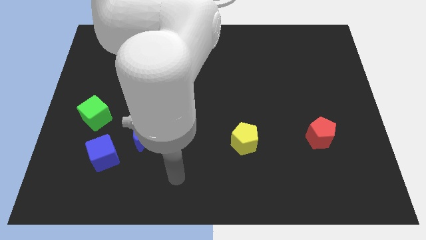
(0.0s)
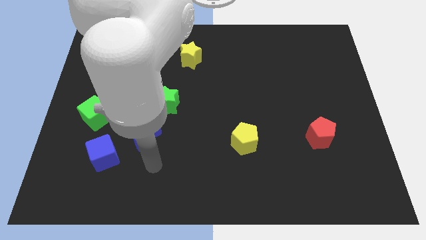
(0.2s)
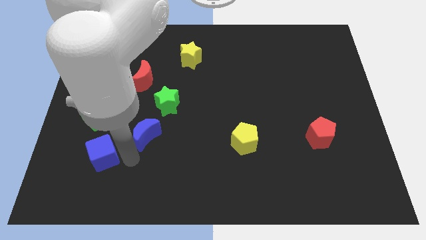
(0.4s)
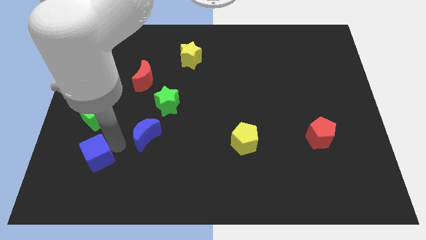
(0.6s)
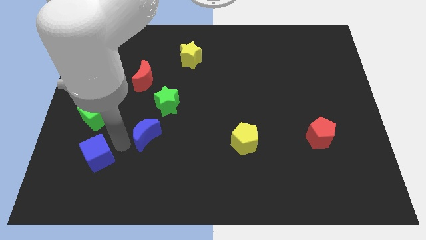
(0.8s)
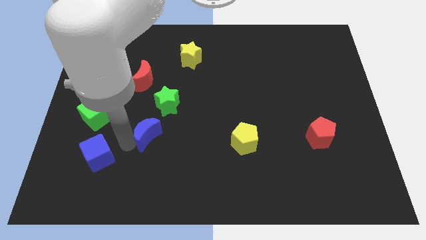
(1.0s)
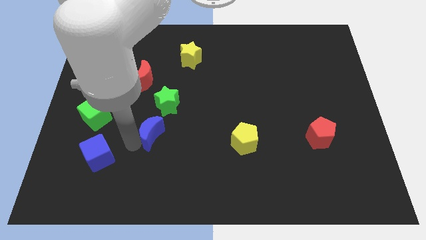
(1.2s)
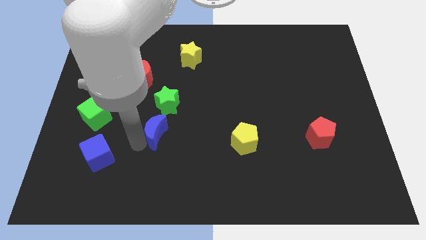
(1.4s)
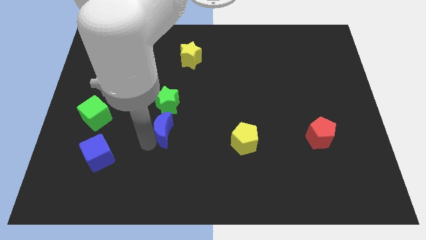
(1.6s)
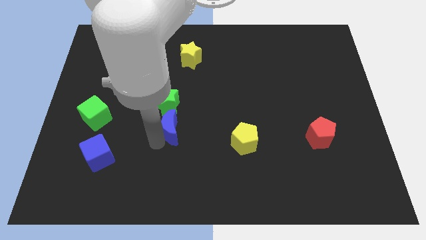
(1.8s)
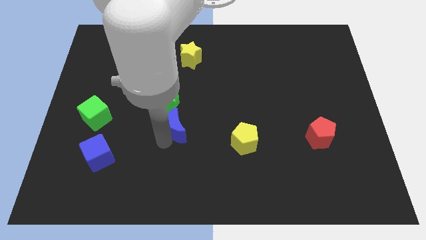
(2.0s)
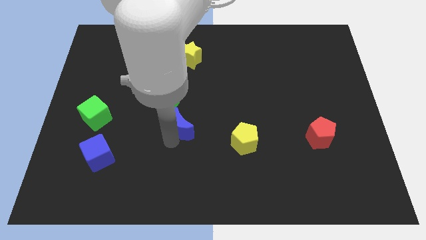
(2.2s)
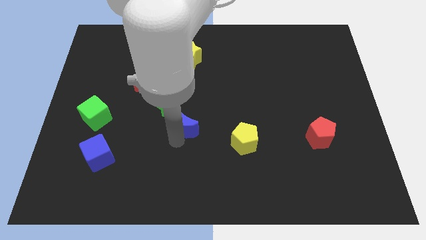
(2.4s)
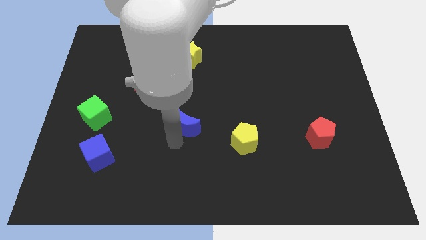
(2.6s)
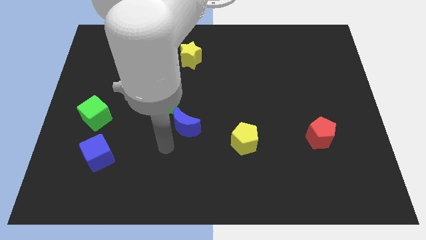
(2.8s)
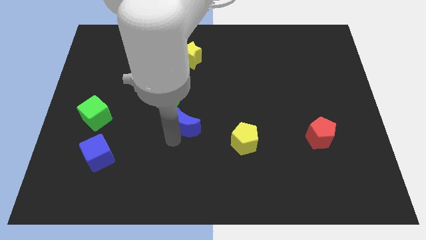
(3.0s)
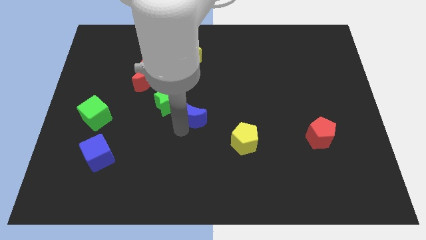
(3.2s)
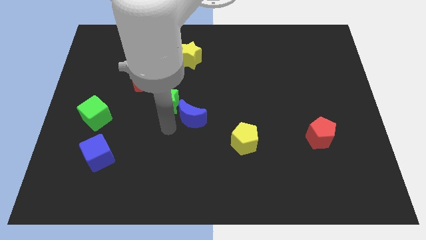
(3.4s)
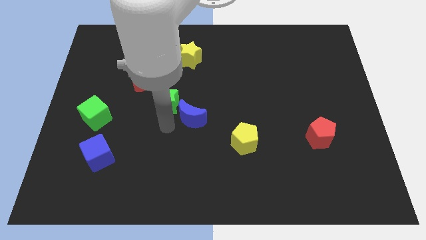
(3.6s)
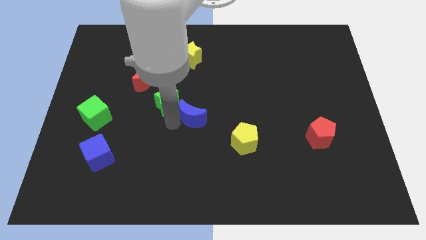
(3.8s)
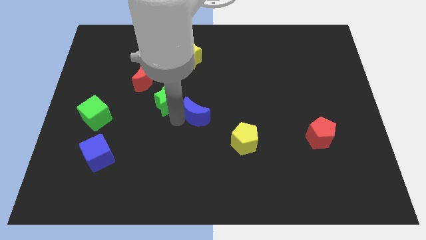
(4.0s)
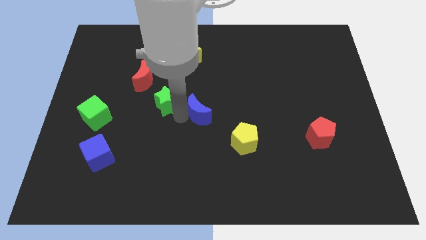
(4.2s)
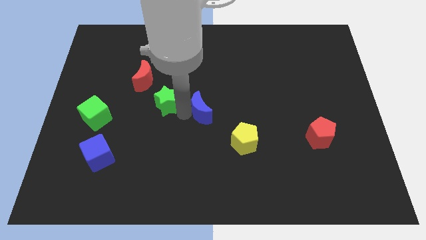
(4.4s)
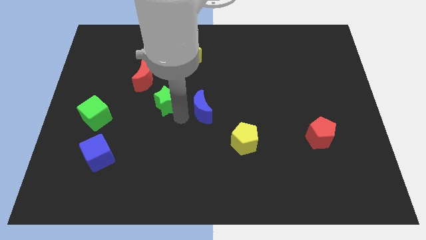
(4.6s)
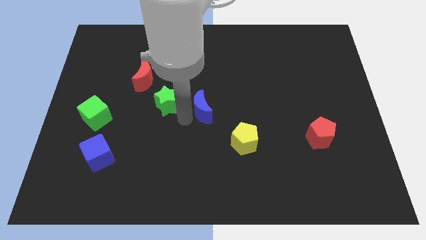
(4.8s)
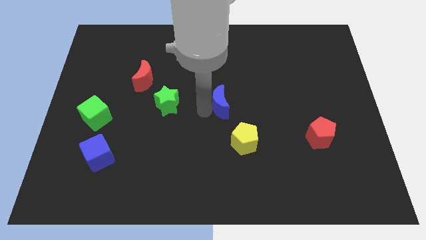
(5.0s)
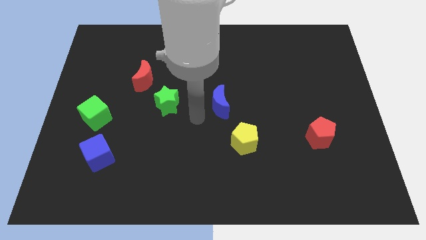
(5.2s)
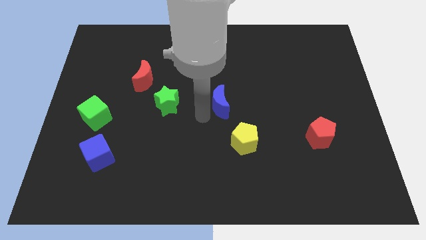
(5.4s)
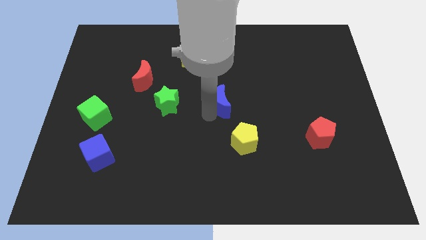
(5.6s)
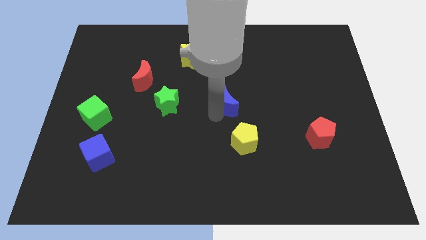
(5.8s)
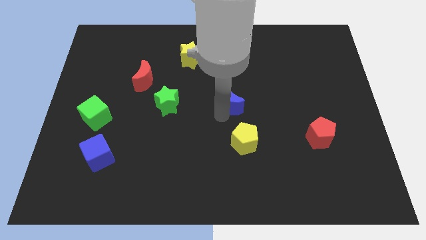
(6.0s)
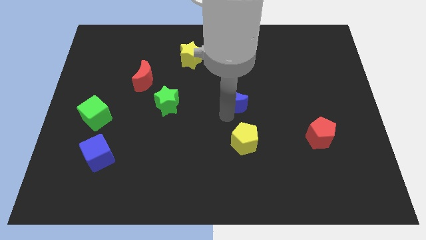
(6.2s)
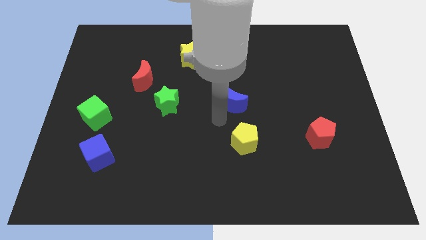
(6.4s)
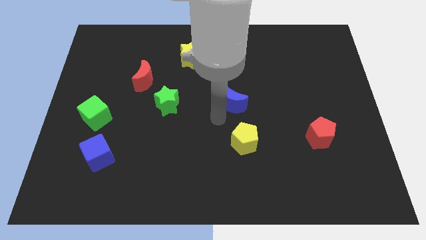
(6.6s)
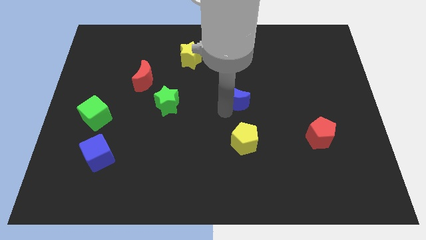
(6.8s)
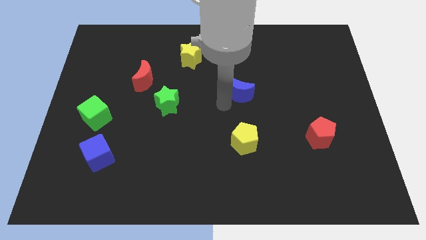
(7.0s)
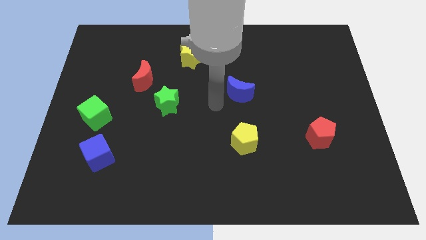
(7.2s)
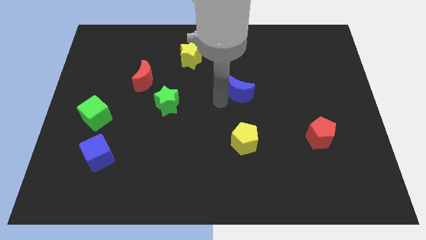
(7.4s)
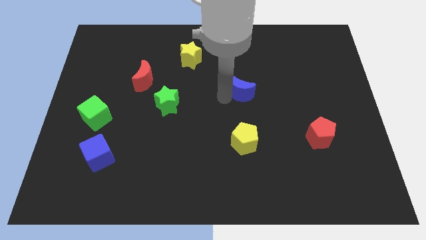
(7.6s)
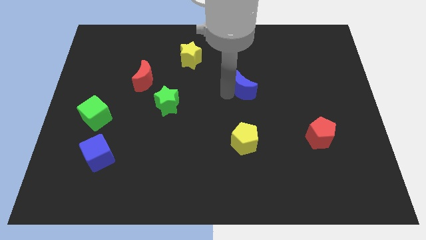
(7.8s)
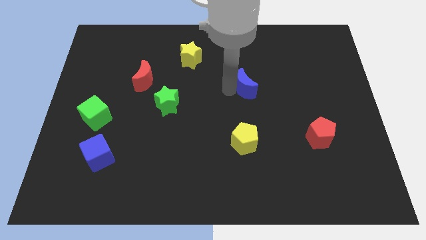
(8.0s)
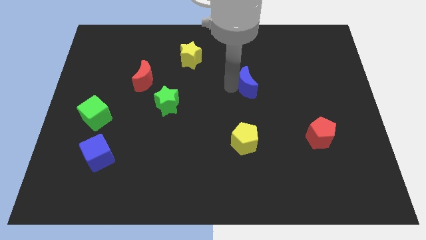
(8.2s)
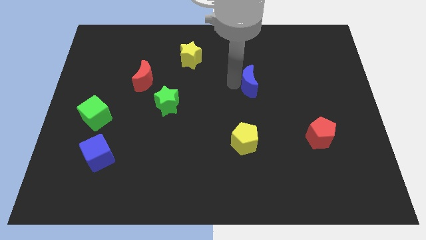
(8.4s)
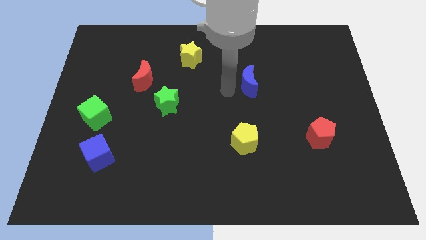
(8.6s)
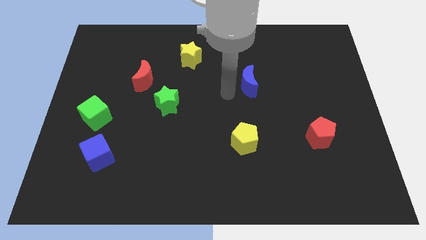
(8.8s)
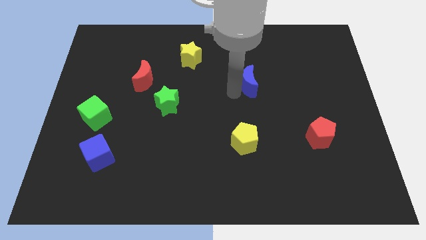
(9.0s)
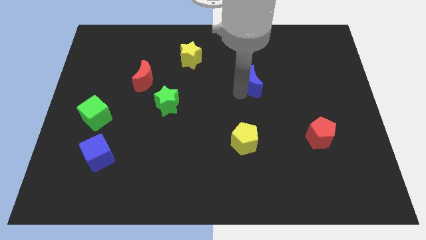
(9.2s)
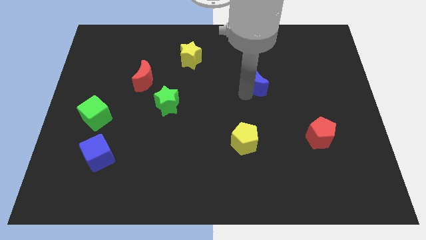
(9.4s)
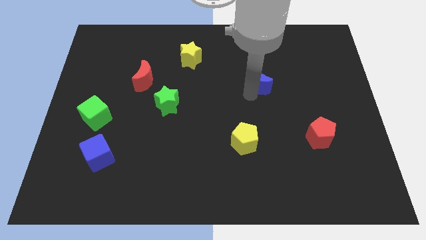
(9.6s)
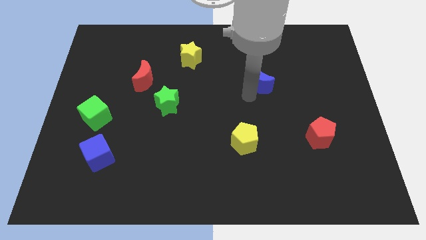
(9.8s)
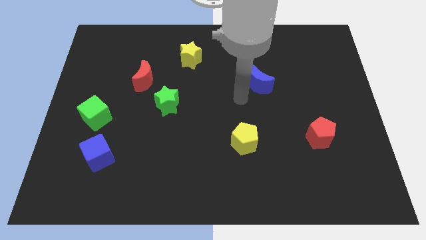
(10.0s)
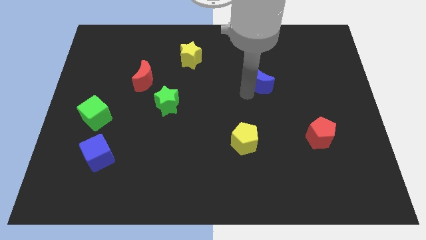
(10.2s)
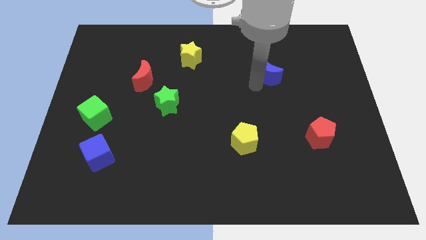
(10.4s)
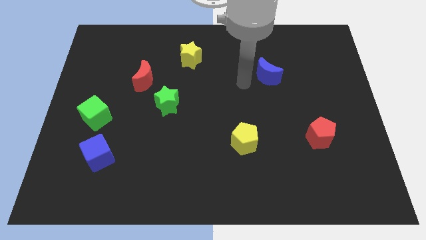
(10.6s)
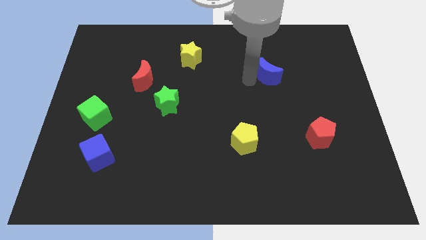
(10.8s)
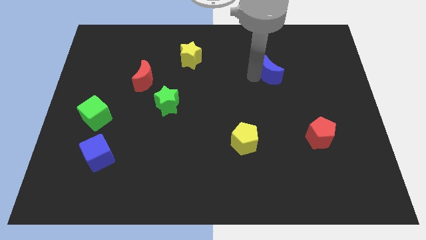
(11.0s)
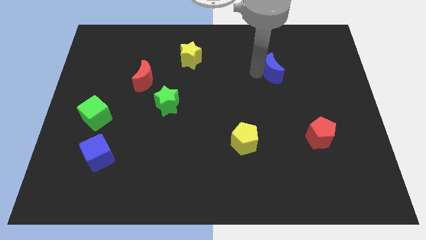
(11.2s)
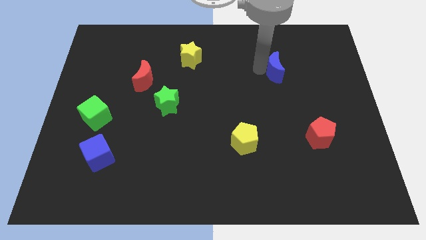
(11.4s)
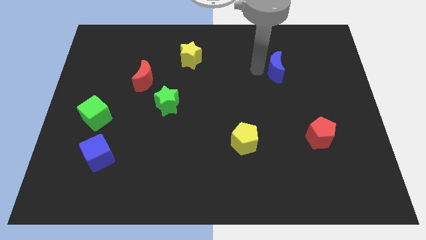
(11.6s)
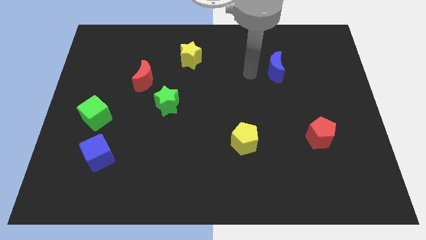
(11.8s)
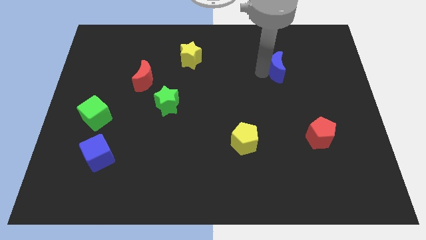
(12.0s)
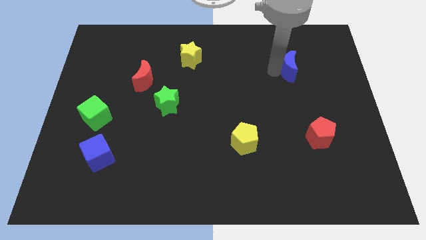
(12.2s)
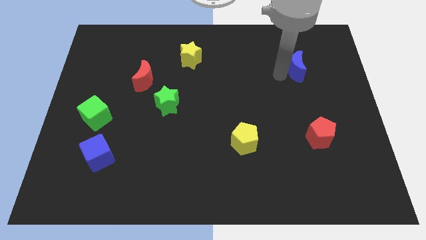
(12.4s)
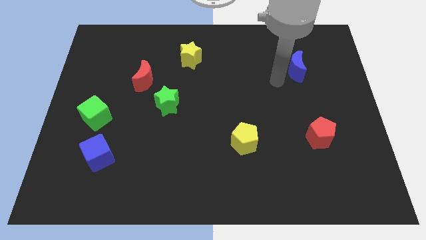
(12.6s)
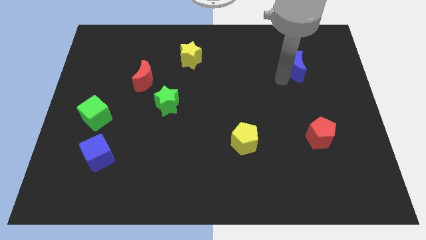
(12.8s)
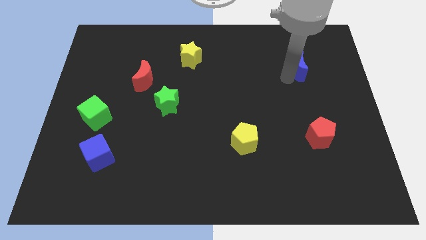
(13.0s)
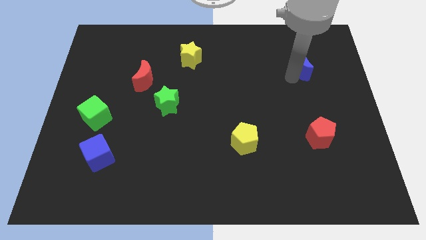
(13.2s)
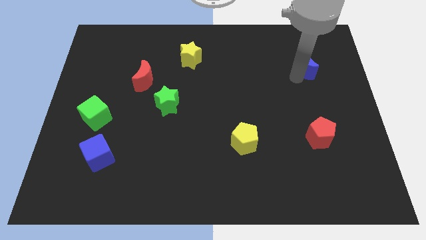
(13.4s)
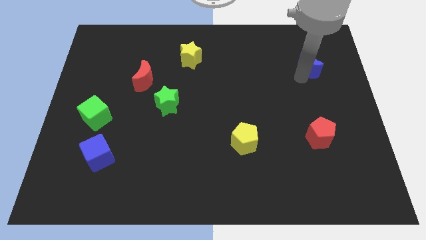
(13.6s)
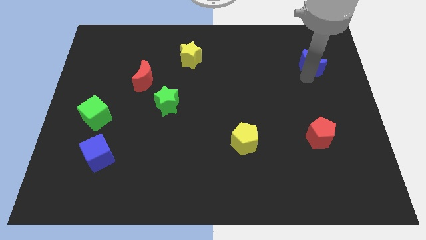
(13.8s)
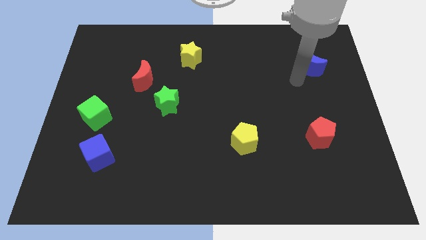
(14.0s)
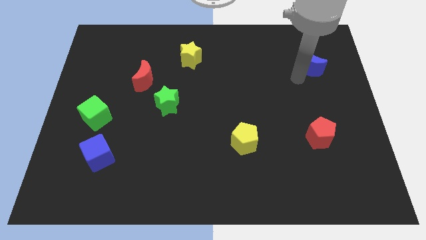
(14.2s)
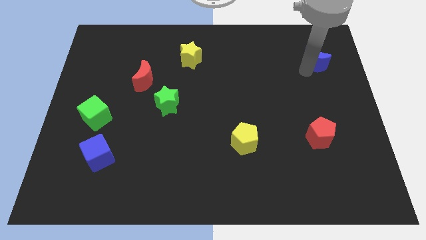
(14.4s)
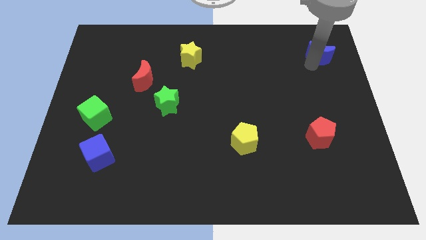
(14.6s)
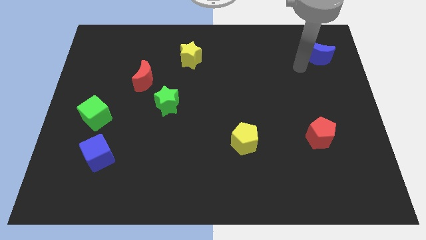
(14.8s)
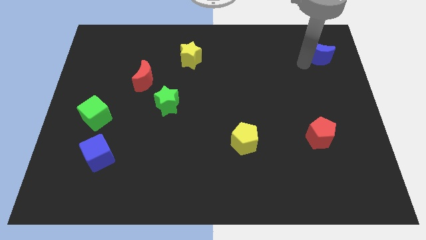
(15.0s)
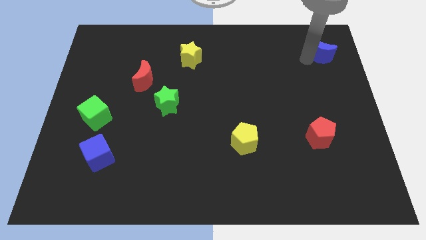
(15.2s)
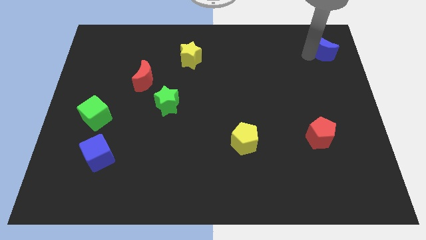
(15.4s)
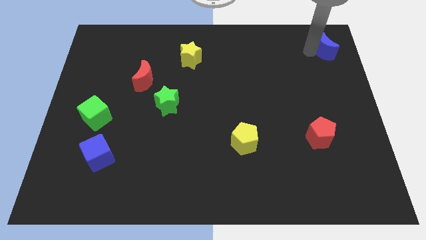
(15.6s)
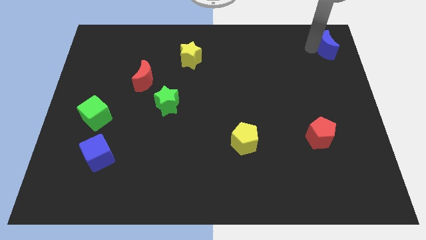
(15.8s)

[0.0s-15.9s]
slide the blue moon to the top right of the board
